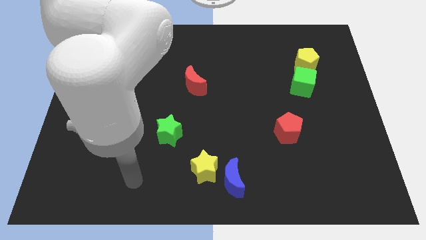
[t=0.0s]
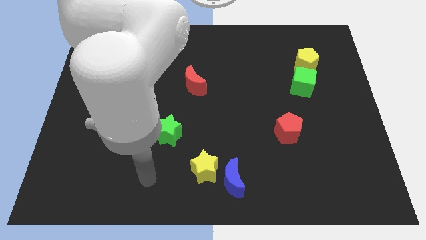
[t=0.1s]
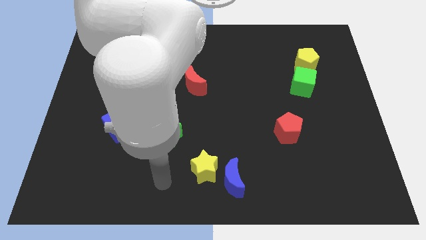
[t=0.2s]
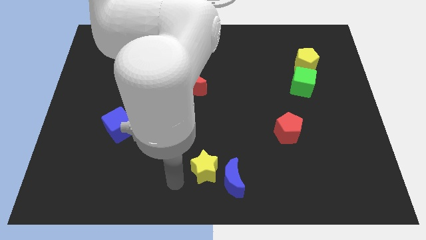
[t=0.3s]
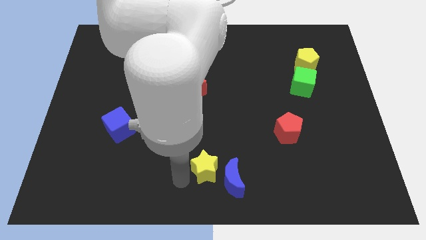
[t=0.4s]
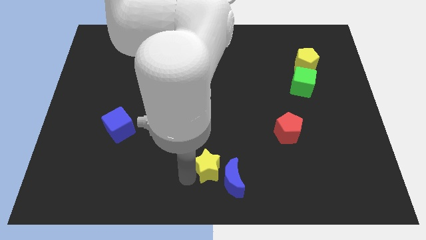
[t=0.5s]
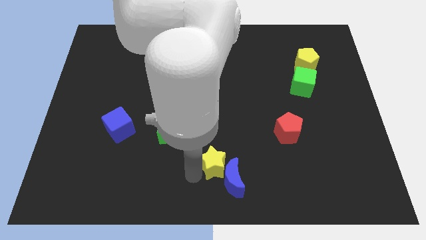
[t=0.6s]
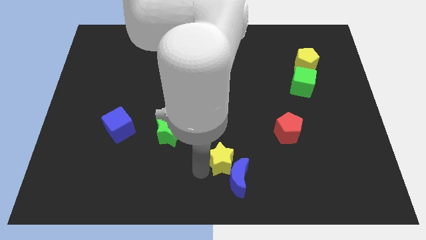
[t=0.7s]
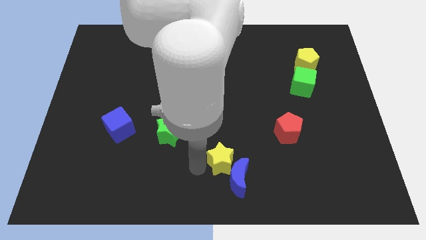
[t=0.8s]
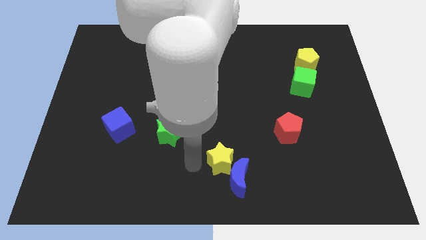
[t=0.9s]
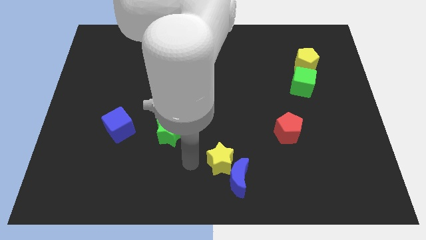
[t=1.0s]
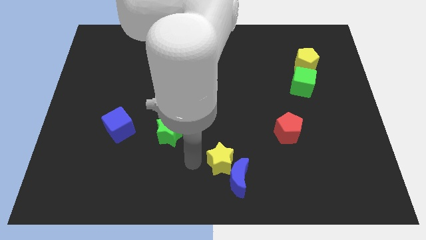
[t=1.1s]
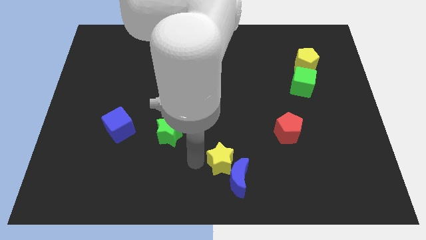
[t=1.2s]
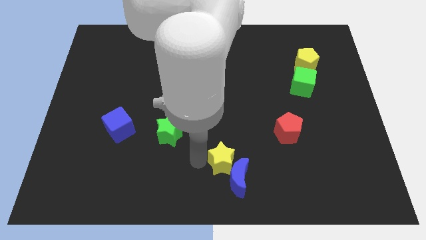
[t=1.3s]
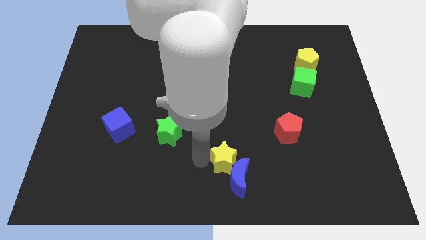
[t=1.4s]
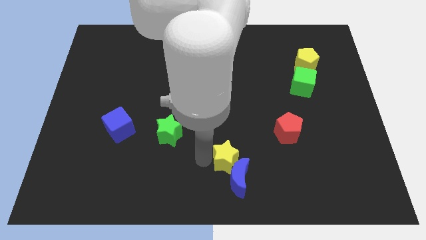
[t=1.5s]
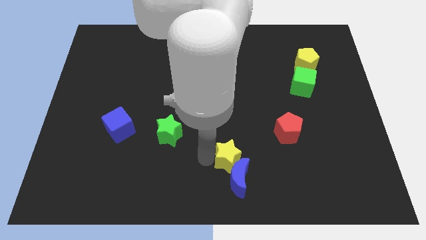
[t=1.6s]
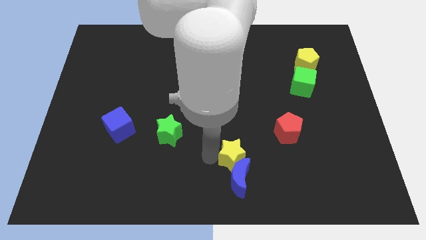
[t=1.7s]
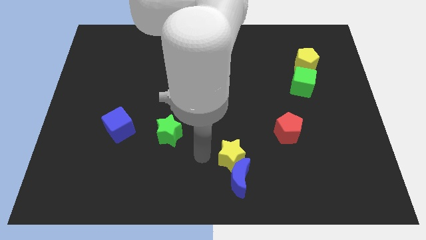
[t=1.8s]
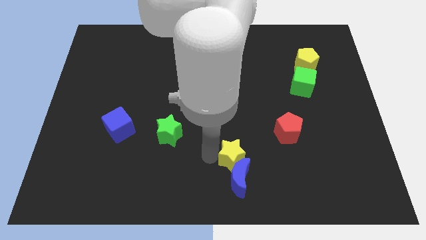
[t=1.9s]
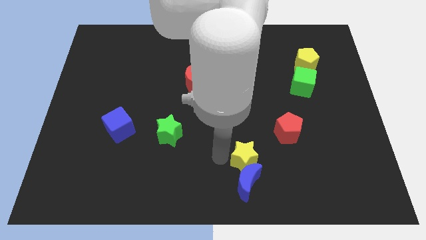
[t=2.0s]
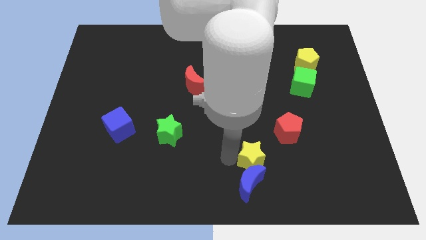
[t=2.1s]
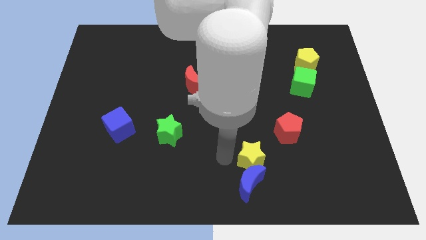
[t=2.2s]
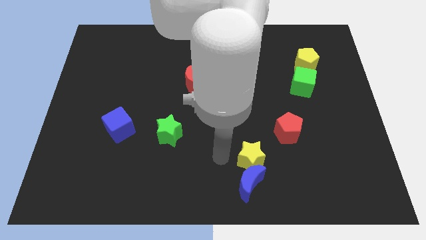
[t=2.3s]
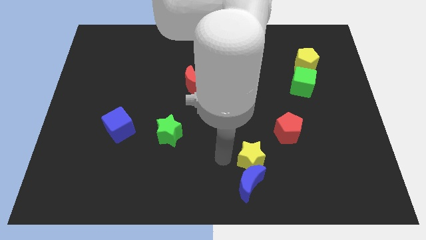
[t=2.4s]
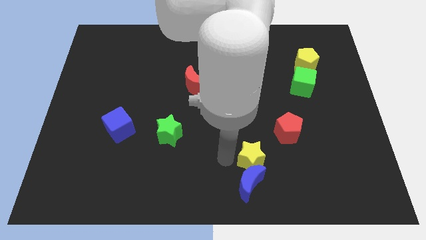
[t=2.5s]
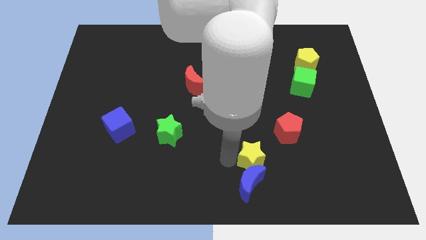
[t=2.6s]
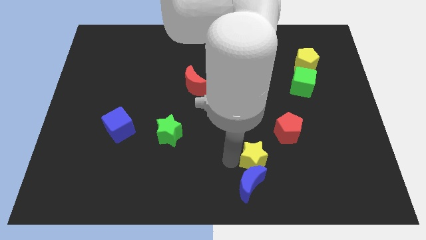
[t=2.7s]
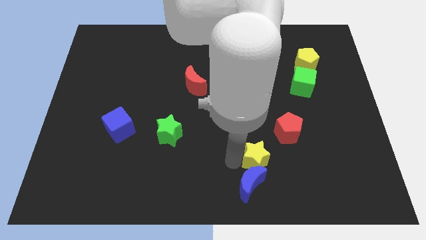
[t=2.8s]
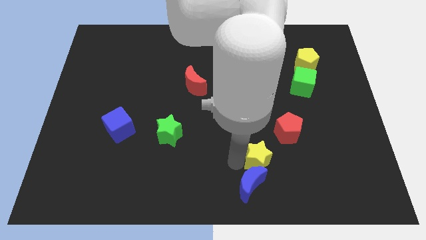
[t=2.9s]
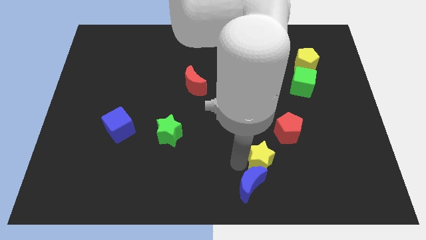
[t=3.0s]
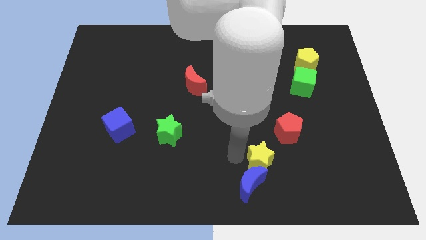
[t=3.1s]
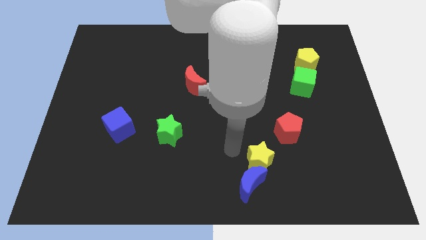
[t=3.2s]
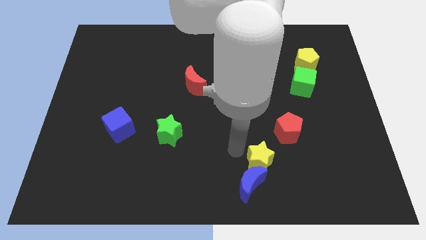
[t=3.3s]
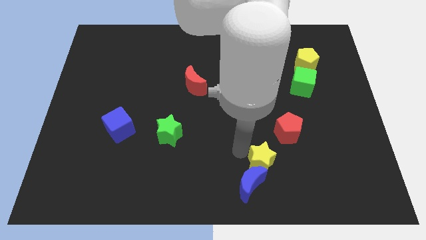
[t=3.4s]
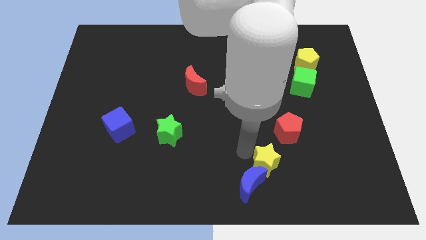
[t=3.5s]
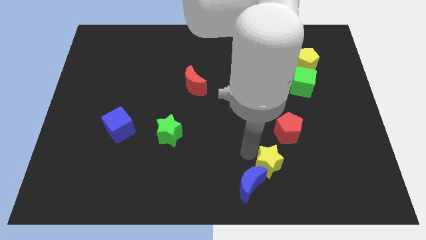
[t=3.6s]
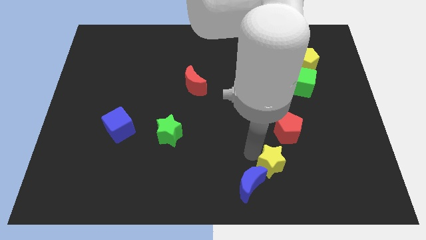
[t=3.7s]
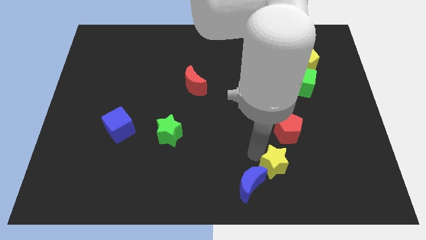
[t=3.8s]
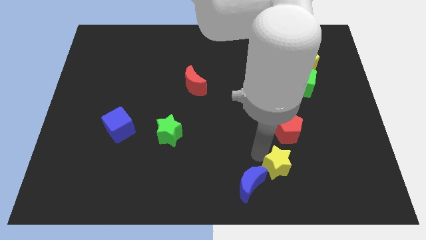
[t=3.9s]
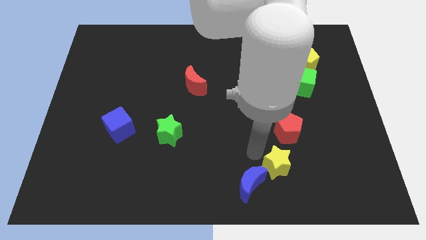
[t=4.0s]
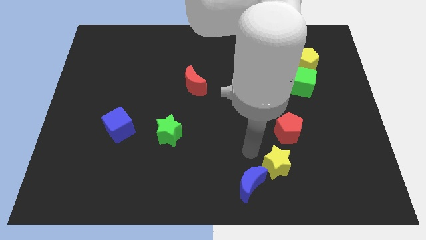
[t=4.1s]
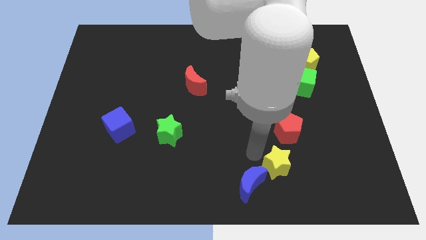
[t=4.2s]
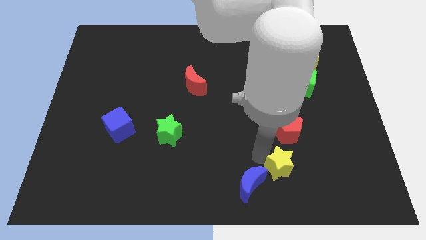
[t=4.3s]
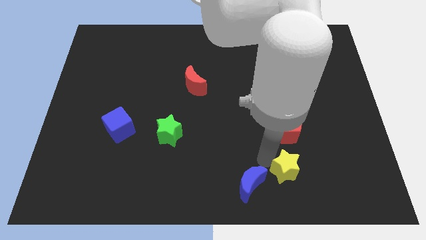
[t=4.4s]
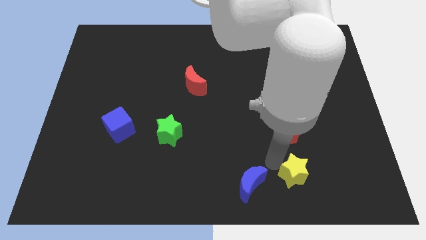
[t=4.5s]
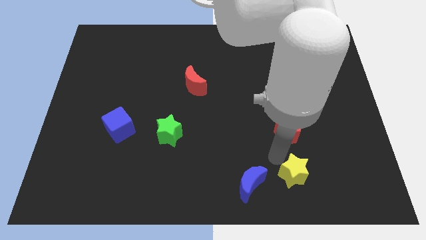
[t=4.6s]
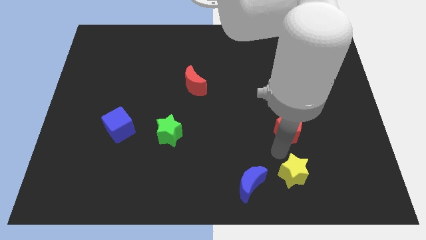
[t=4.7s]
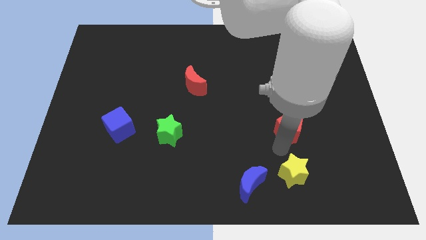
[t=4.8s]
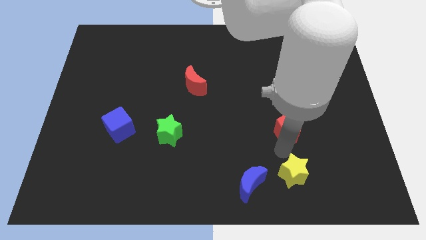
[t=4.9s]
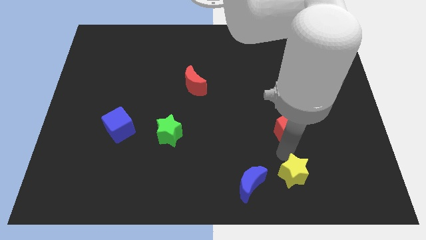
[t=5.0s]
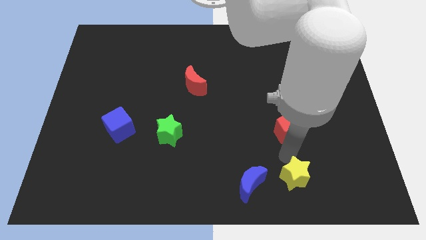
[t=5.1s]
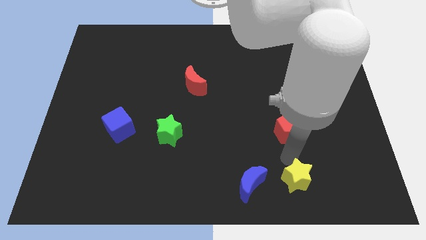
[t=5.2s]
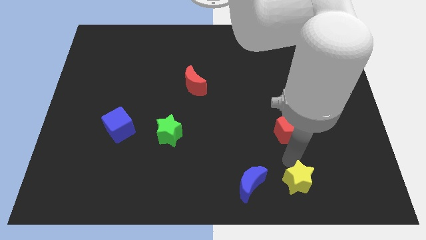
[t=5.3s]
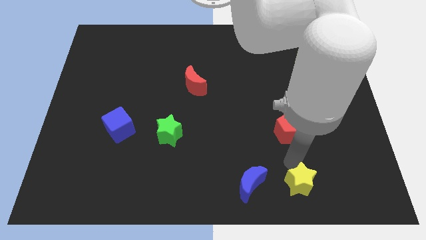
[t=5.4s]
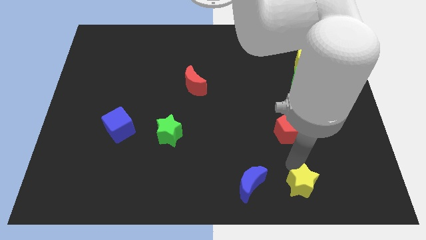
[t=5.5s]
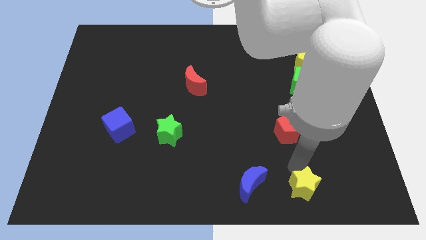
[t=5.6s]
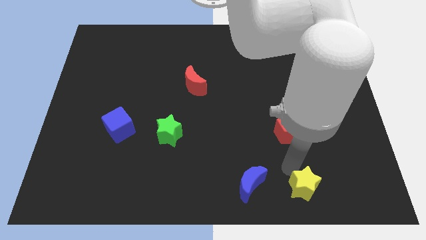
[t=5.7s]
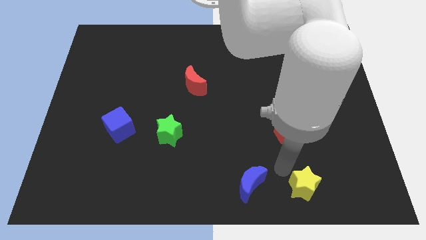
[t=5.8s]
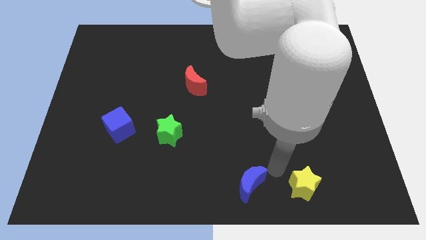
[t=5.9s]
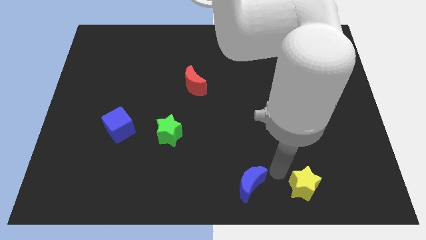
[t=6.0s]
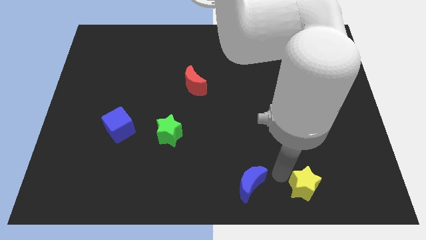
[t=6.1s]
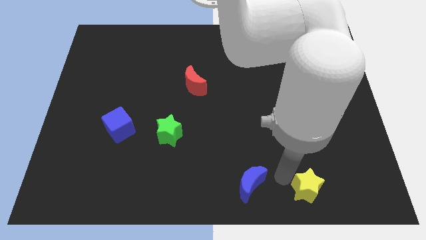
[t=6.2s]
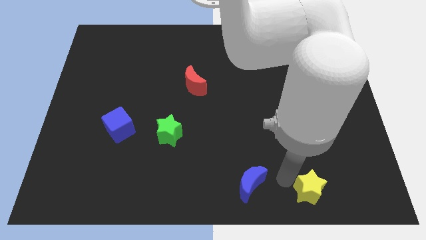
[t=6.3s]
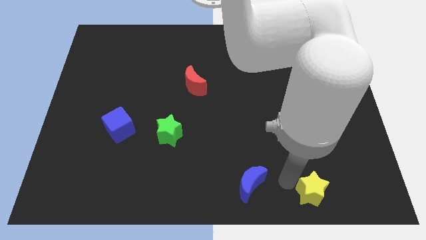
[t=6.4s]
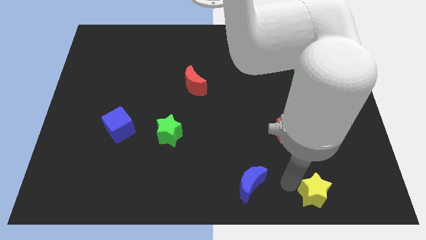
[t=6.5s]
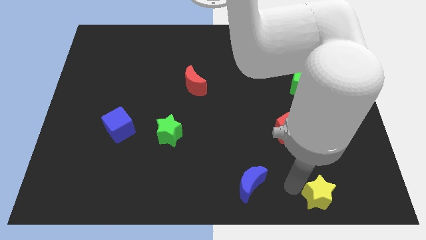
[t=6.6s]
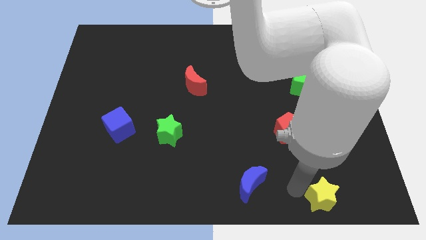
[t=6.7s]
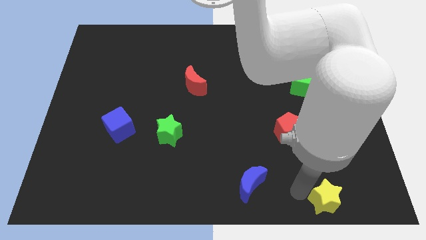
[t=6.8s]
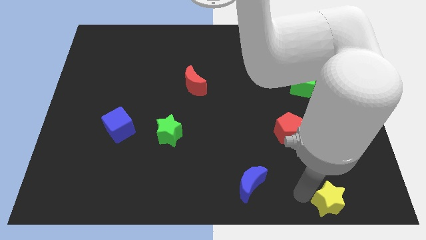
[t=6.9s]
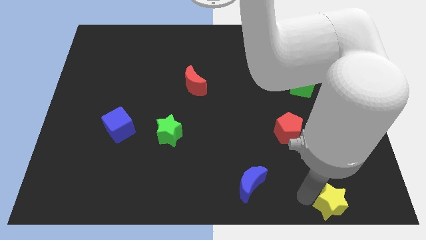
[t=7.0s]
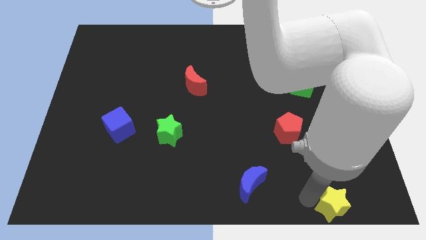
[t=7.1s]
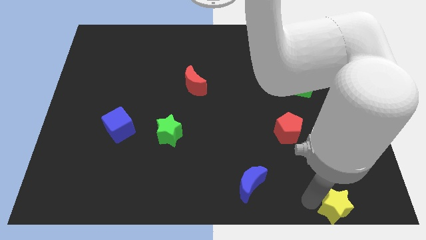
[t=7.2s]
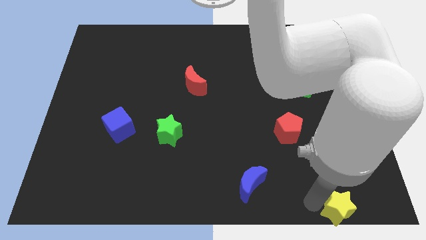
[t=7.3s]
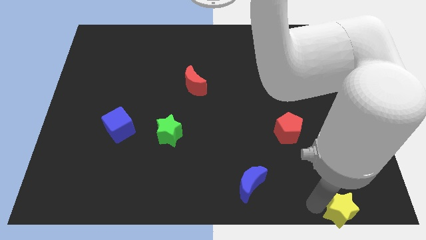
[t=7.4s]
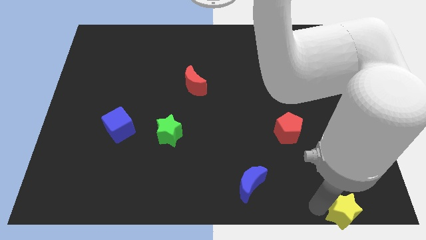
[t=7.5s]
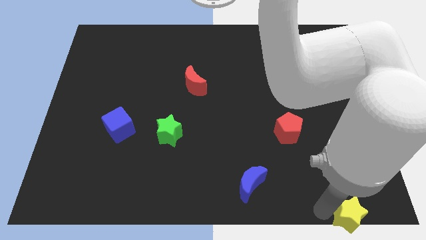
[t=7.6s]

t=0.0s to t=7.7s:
put the yellow star to the bottom right of the board
